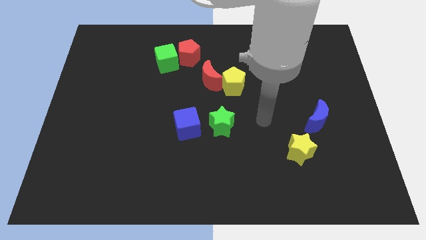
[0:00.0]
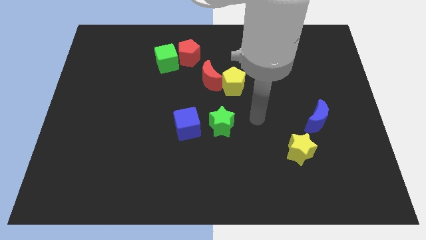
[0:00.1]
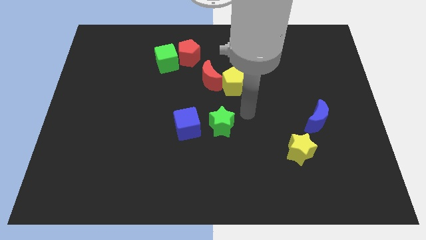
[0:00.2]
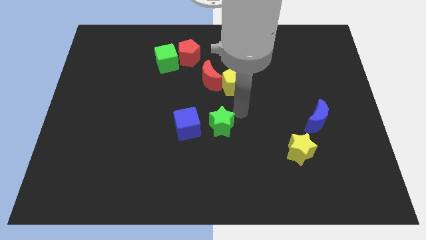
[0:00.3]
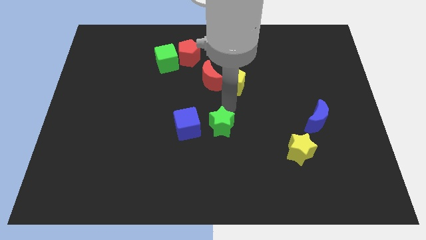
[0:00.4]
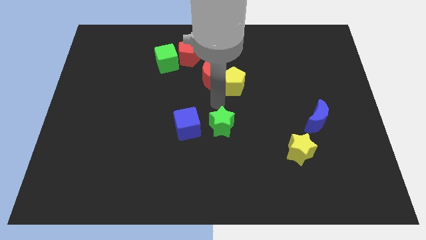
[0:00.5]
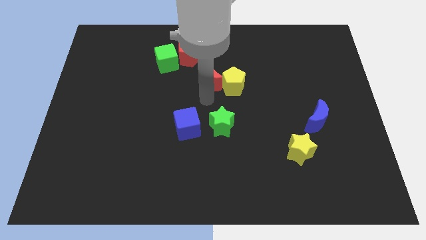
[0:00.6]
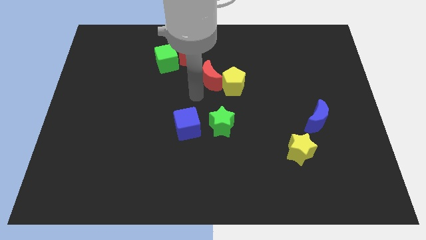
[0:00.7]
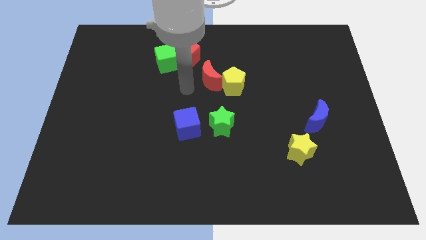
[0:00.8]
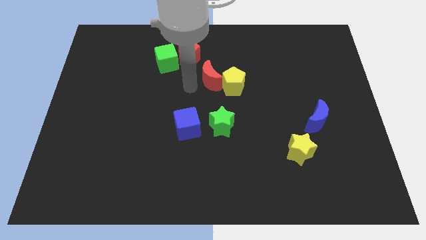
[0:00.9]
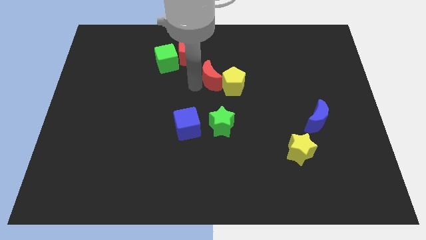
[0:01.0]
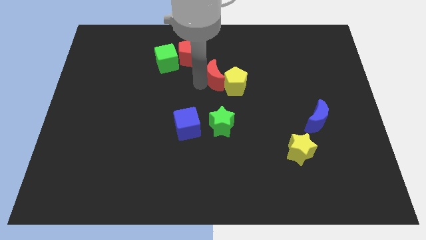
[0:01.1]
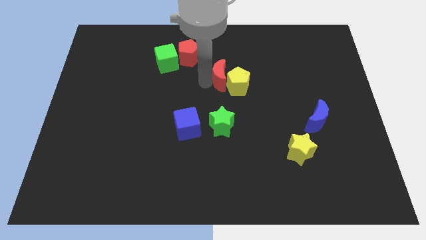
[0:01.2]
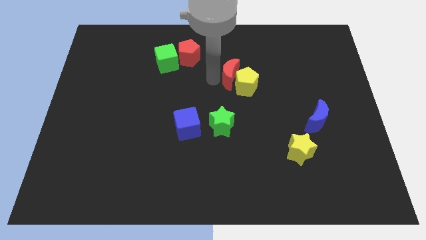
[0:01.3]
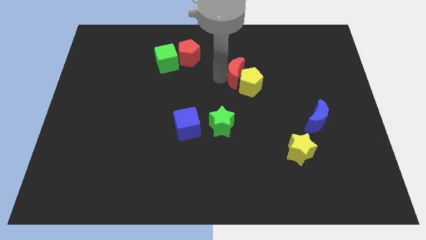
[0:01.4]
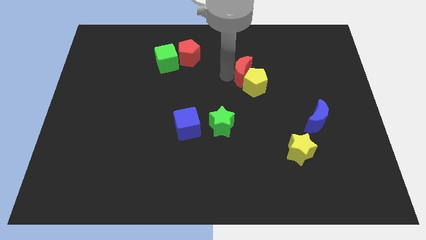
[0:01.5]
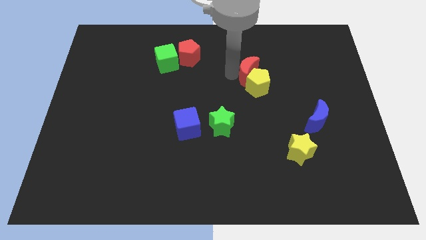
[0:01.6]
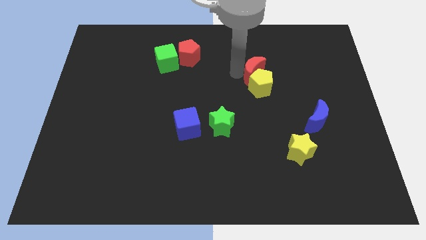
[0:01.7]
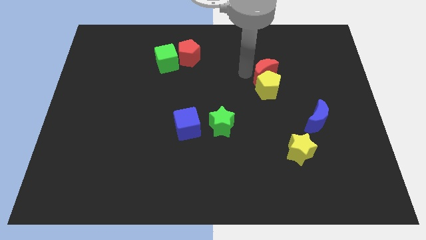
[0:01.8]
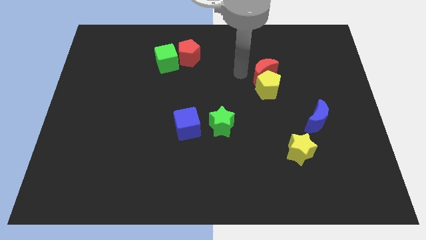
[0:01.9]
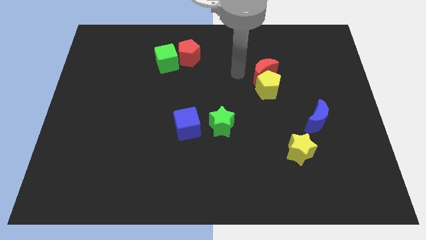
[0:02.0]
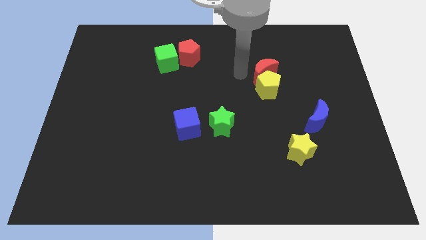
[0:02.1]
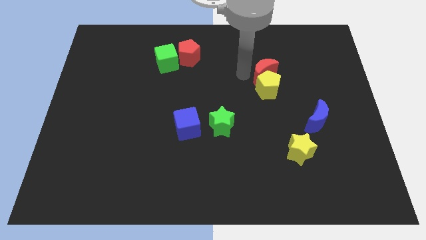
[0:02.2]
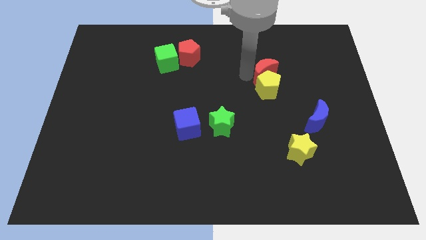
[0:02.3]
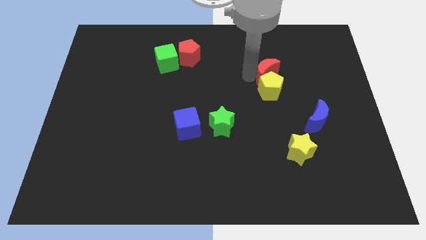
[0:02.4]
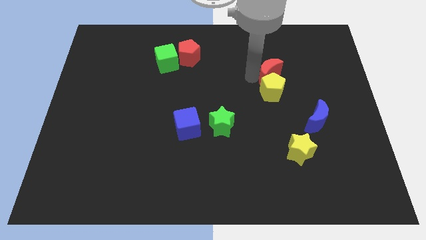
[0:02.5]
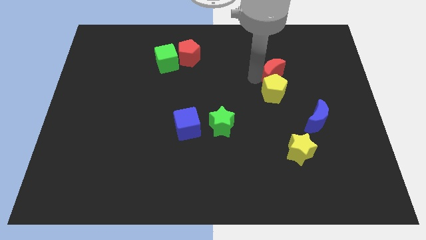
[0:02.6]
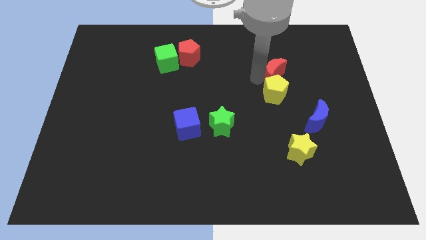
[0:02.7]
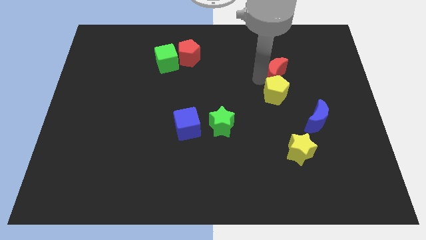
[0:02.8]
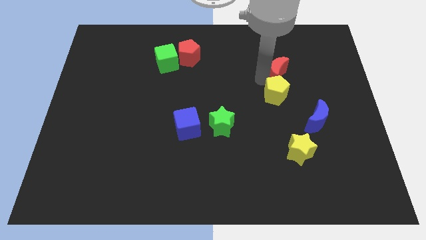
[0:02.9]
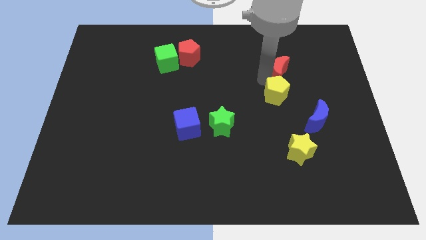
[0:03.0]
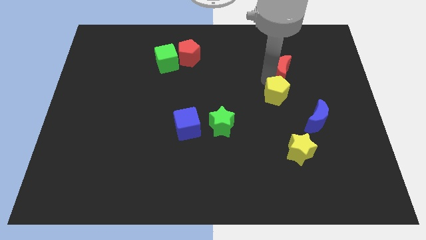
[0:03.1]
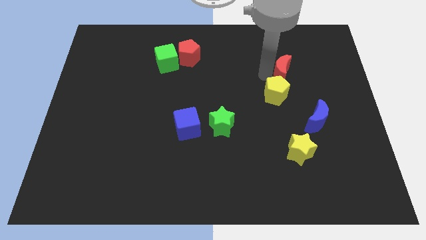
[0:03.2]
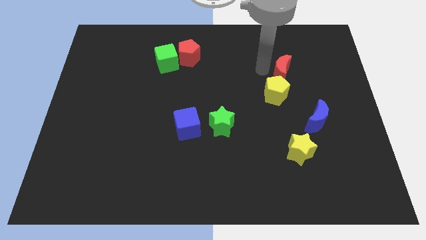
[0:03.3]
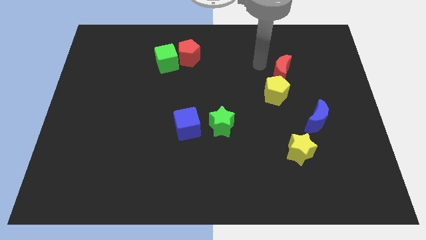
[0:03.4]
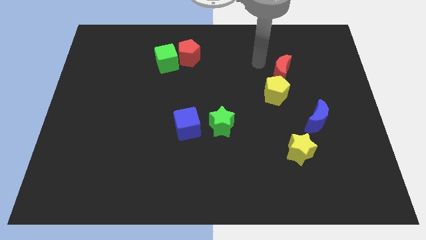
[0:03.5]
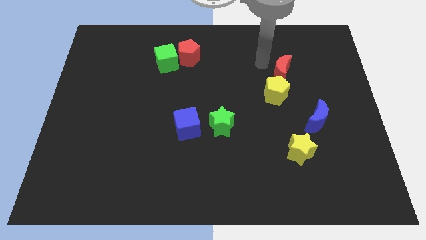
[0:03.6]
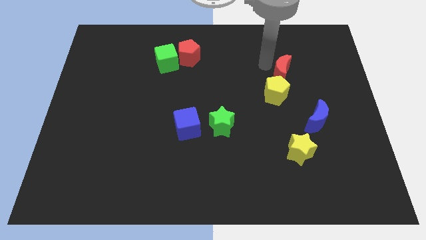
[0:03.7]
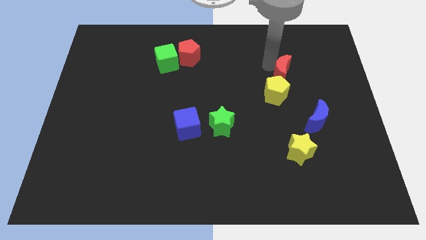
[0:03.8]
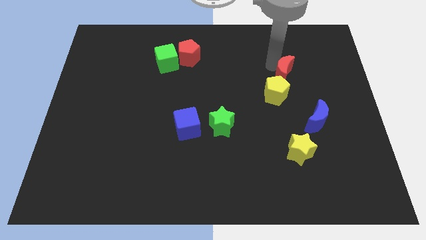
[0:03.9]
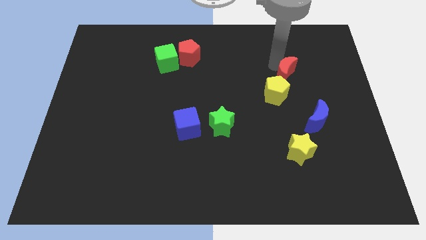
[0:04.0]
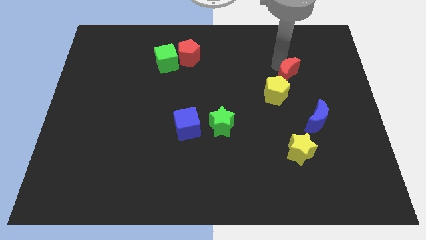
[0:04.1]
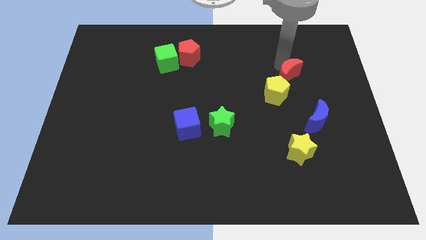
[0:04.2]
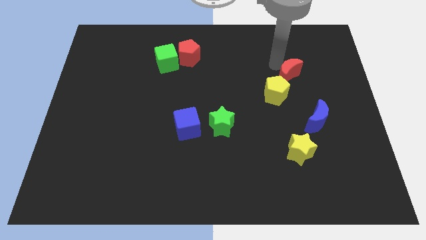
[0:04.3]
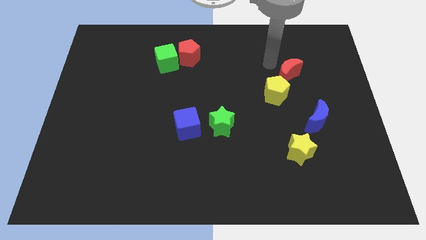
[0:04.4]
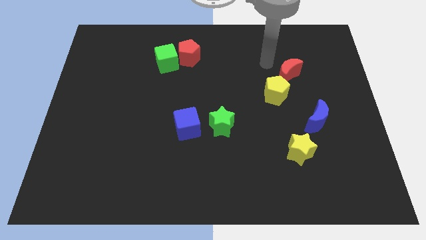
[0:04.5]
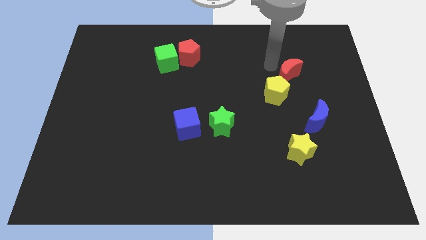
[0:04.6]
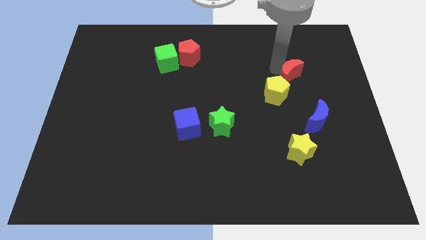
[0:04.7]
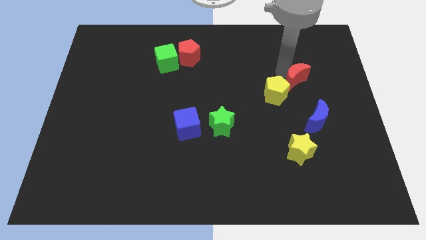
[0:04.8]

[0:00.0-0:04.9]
slide the red moon above the blue moon

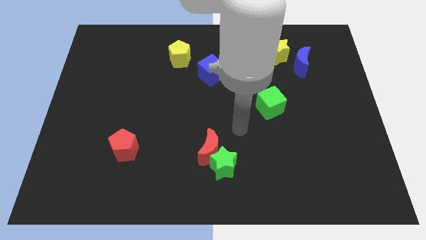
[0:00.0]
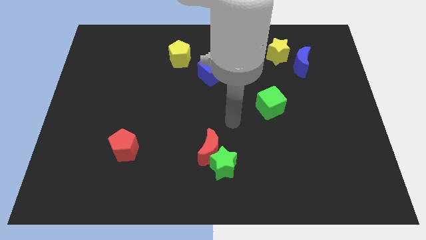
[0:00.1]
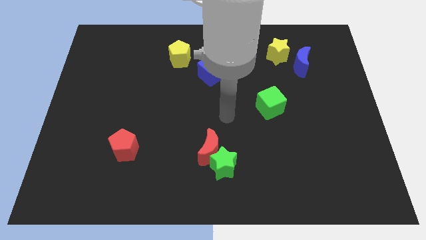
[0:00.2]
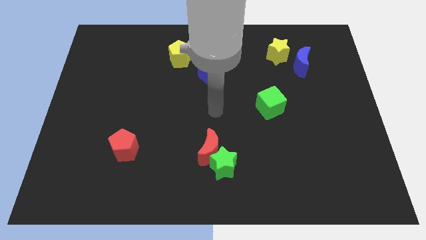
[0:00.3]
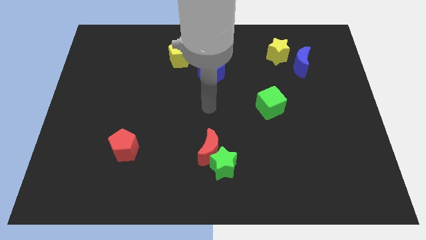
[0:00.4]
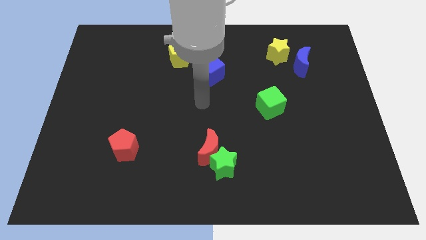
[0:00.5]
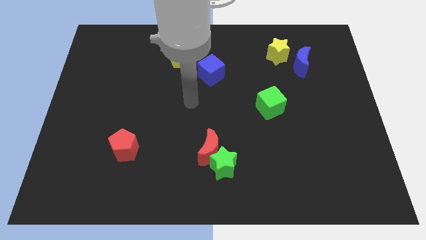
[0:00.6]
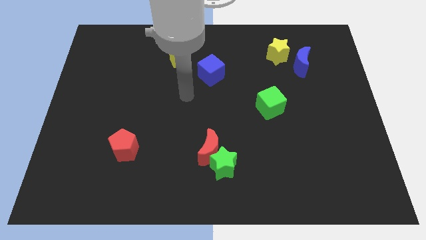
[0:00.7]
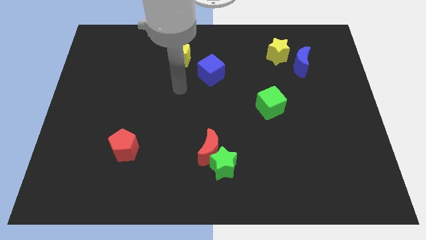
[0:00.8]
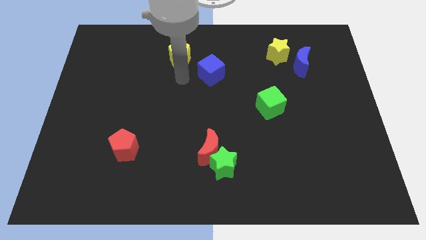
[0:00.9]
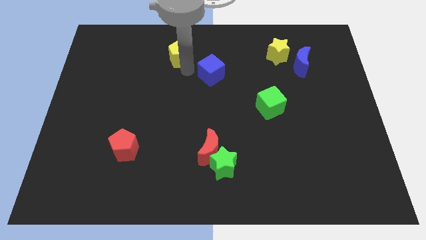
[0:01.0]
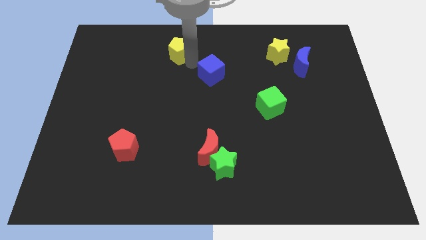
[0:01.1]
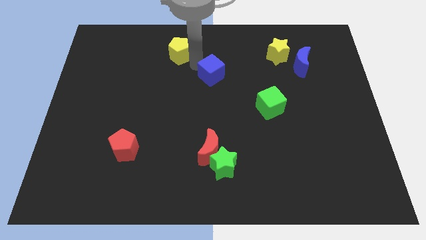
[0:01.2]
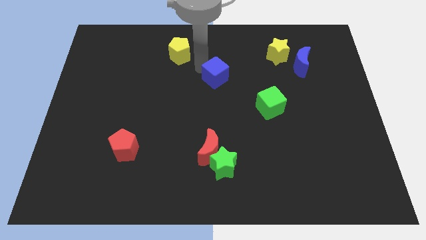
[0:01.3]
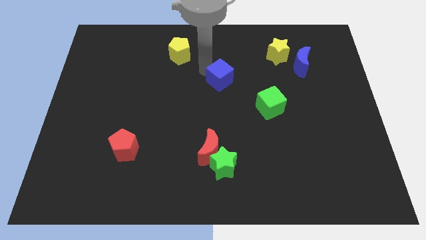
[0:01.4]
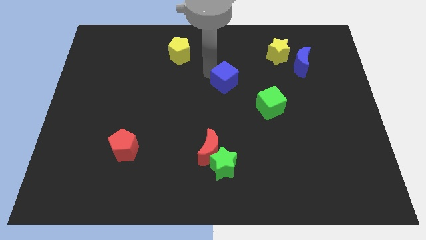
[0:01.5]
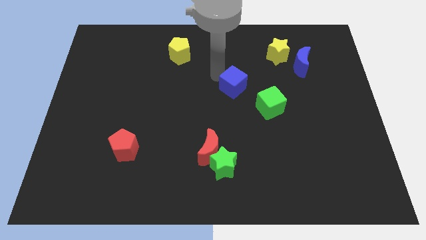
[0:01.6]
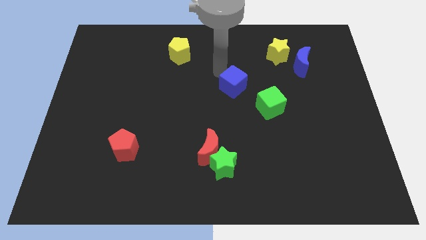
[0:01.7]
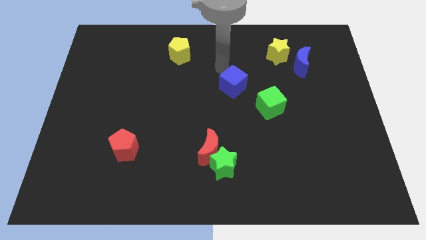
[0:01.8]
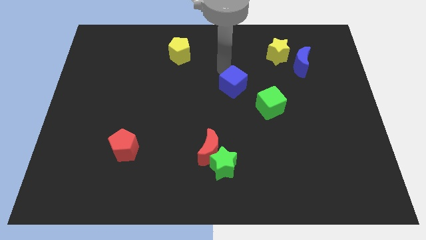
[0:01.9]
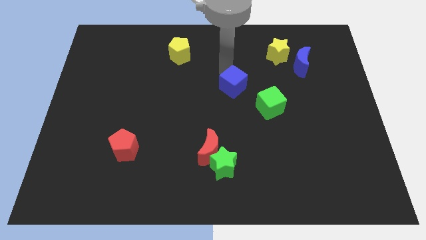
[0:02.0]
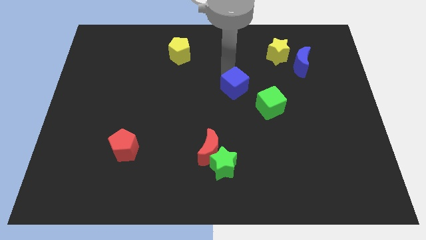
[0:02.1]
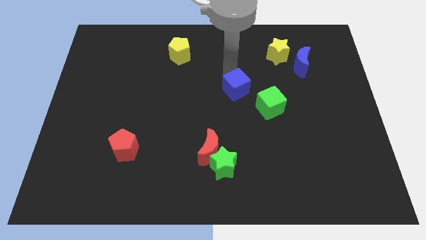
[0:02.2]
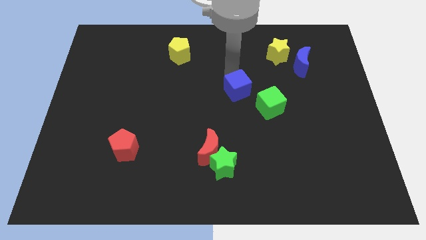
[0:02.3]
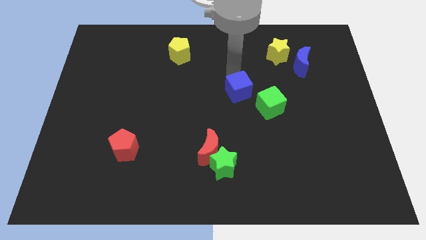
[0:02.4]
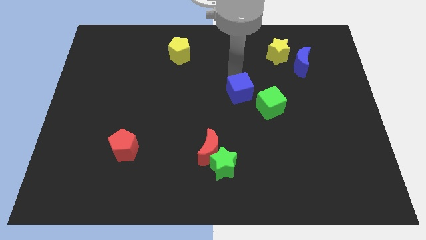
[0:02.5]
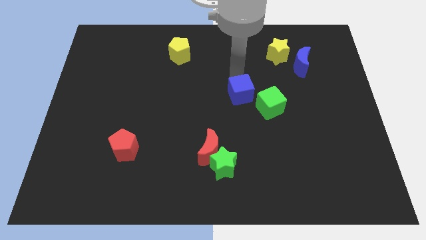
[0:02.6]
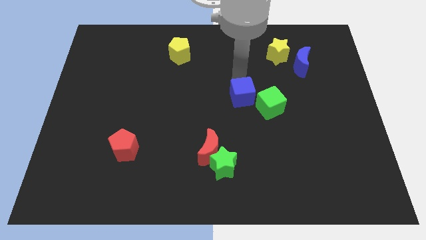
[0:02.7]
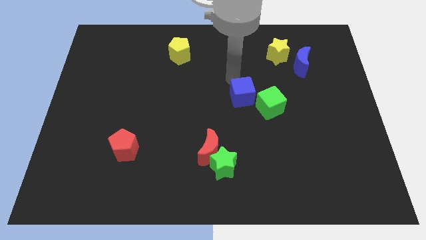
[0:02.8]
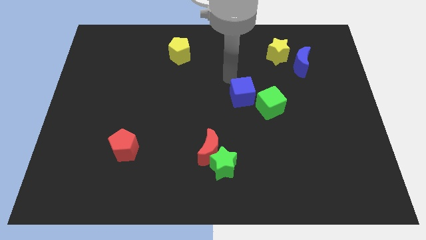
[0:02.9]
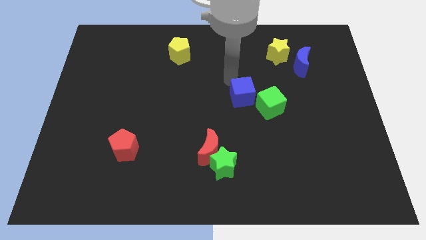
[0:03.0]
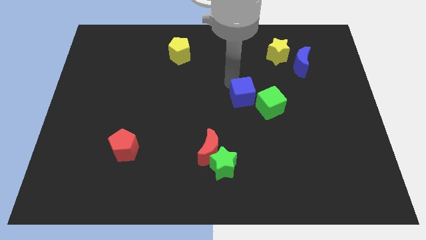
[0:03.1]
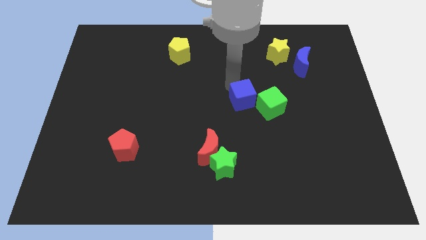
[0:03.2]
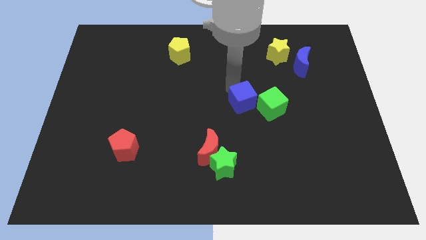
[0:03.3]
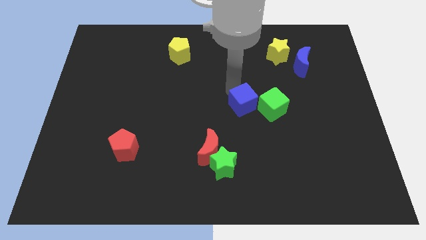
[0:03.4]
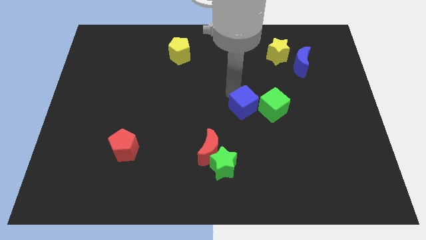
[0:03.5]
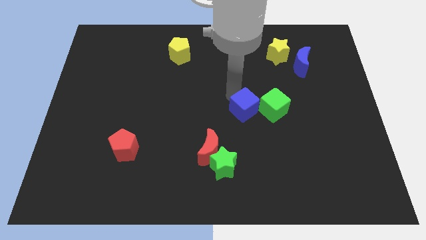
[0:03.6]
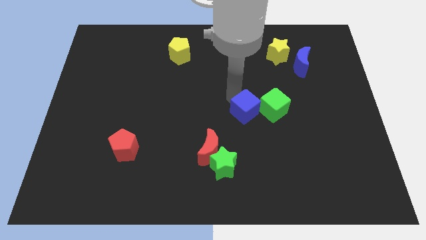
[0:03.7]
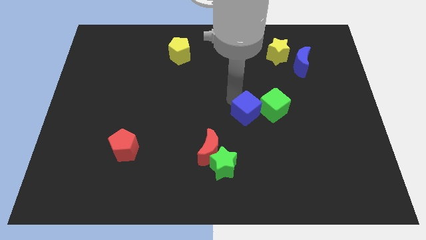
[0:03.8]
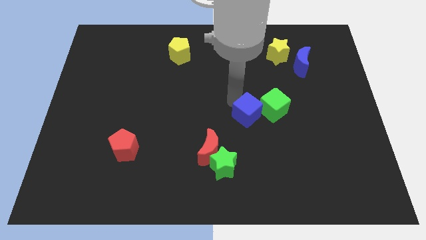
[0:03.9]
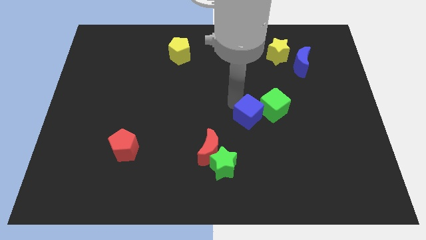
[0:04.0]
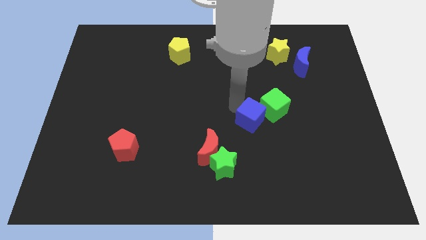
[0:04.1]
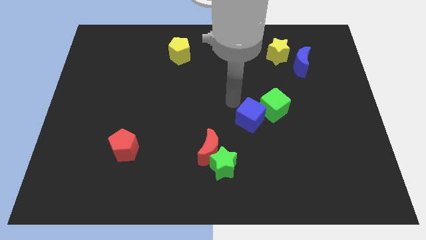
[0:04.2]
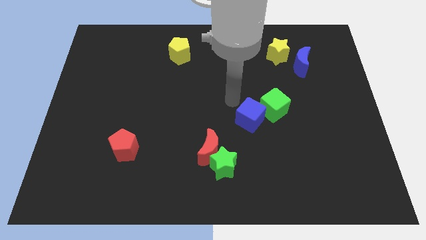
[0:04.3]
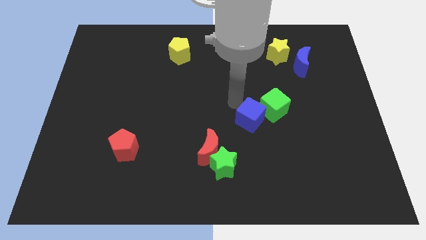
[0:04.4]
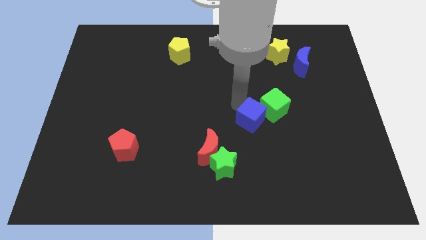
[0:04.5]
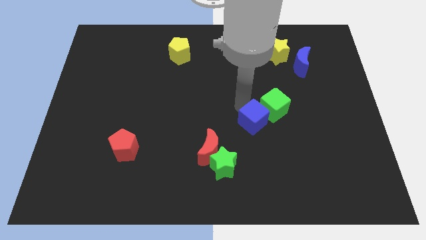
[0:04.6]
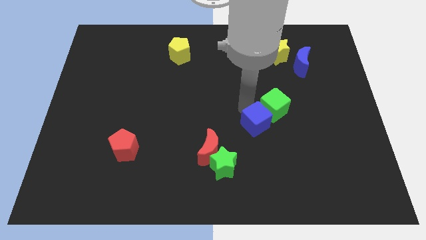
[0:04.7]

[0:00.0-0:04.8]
push the blue cube to the bottom of the green cube
